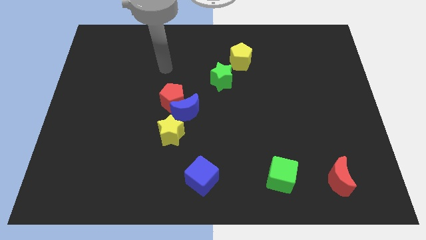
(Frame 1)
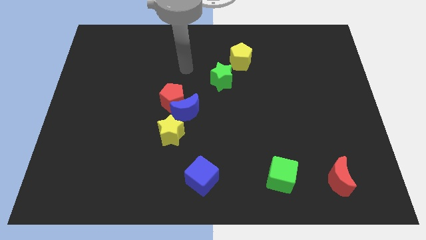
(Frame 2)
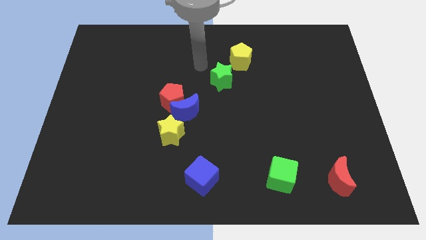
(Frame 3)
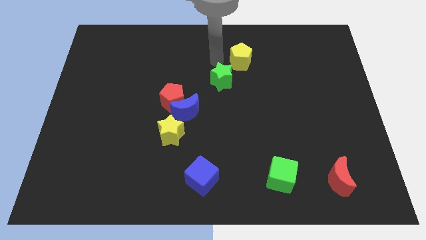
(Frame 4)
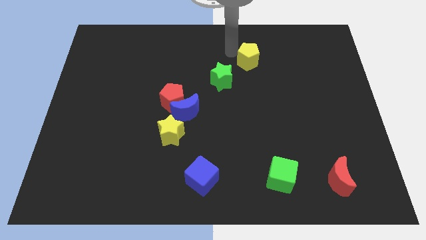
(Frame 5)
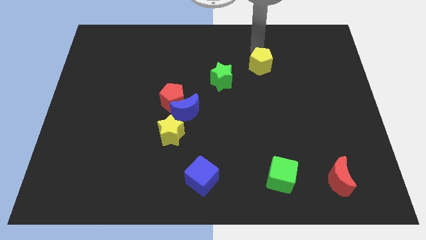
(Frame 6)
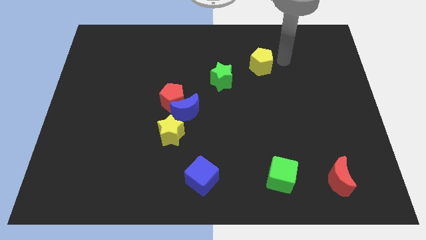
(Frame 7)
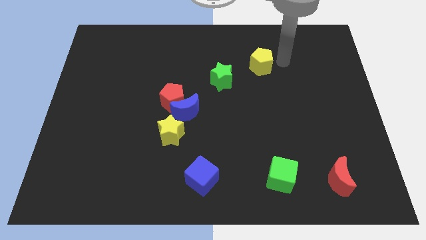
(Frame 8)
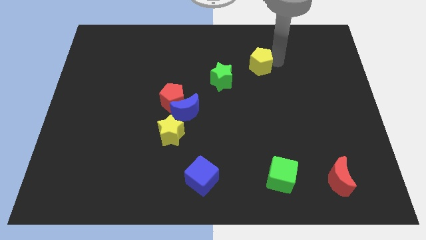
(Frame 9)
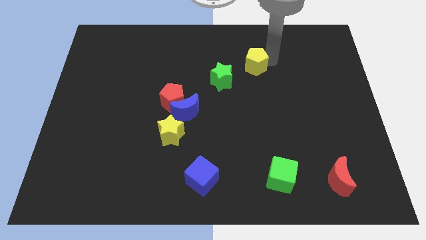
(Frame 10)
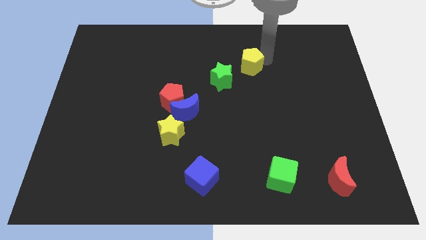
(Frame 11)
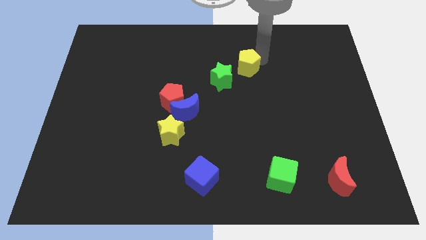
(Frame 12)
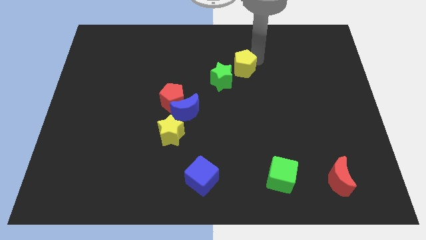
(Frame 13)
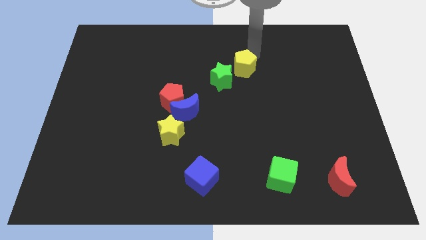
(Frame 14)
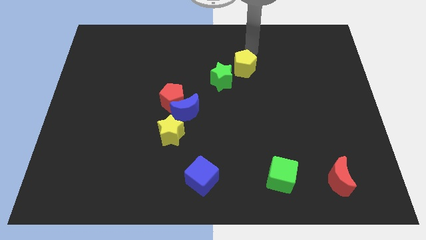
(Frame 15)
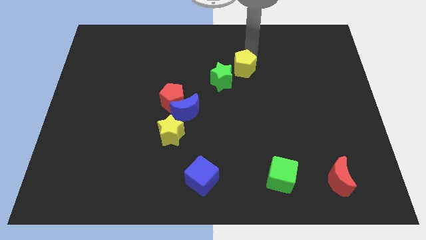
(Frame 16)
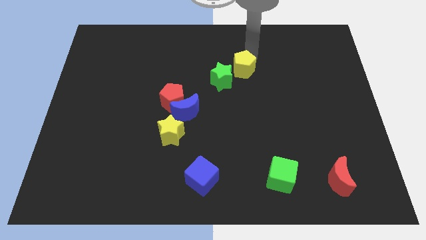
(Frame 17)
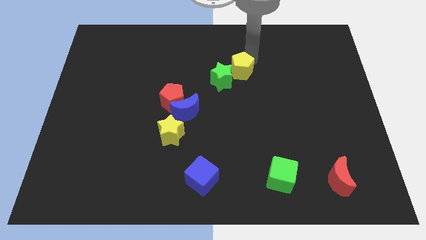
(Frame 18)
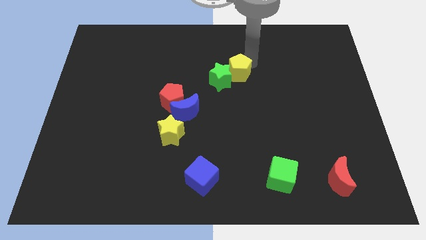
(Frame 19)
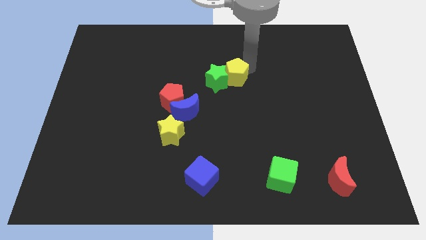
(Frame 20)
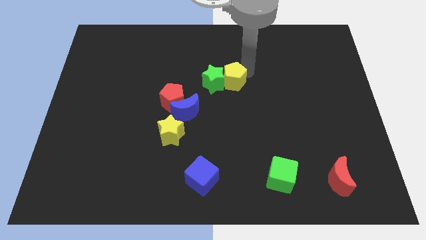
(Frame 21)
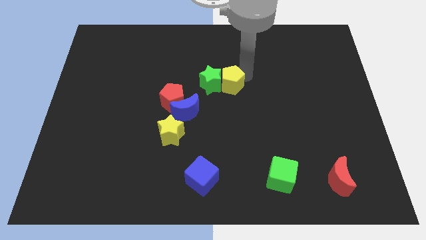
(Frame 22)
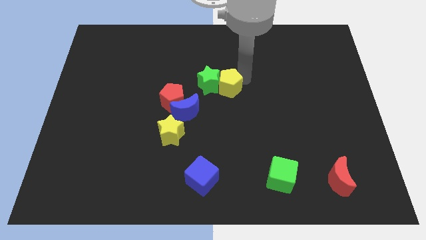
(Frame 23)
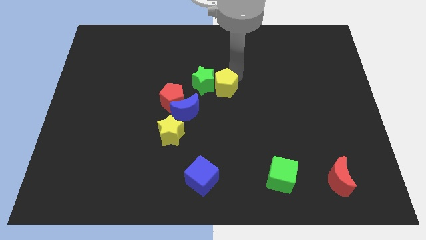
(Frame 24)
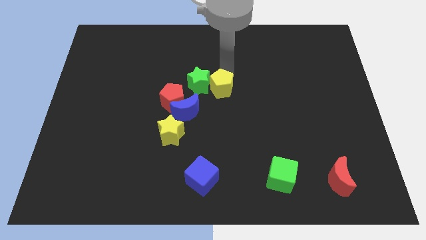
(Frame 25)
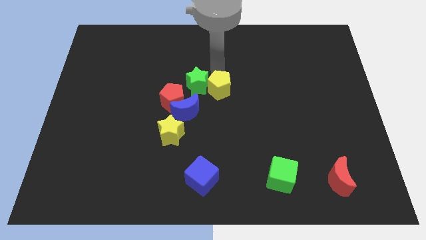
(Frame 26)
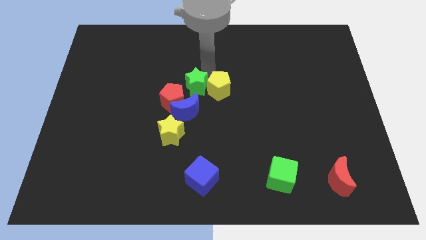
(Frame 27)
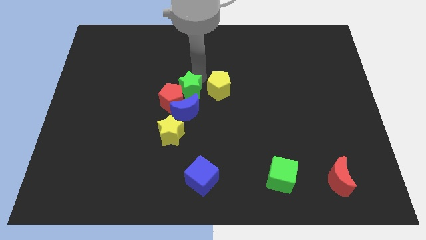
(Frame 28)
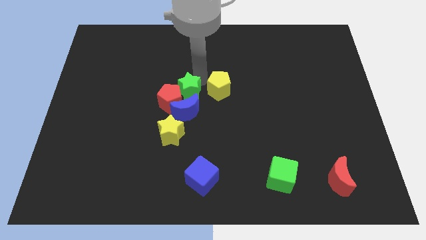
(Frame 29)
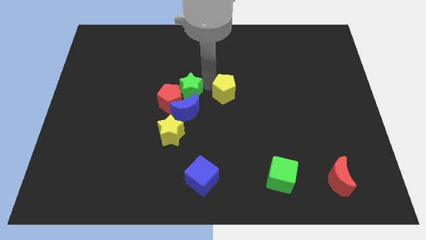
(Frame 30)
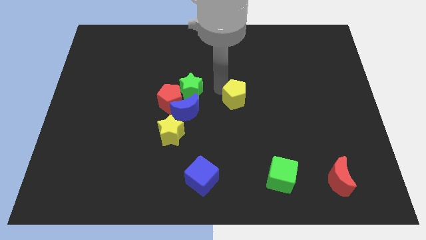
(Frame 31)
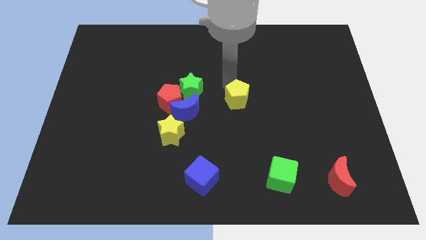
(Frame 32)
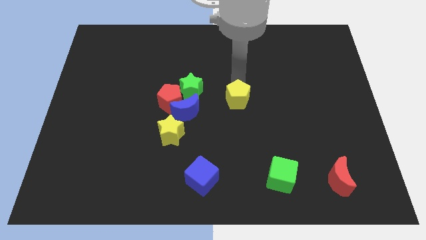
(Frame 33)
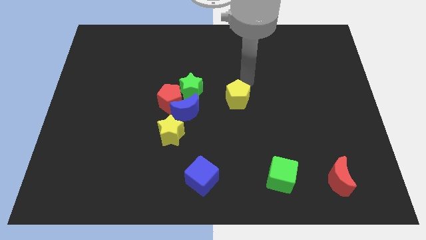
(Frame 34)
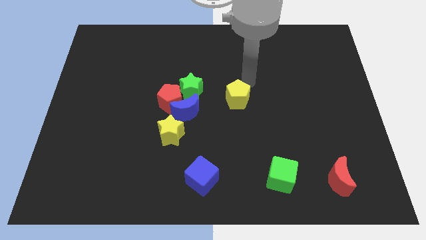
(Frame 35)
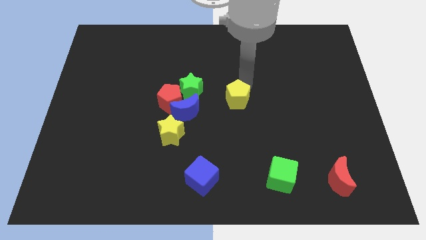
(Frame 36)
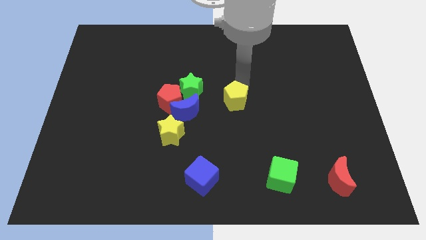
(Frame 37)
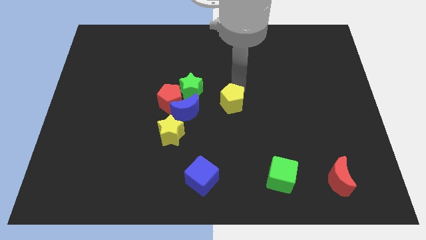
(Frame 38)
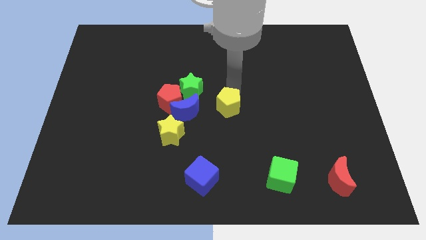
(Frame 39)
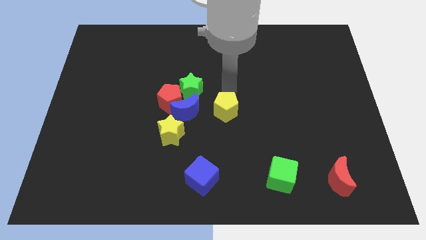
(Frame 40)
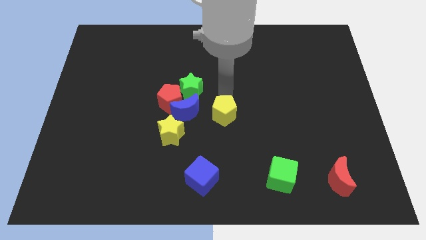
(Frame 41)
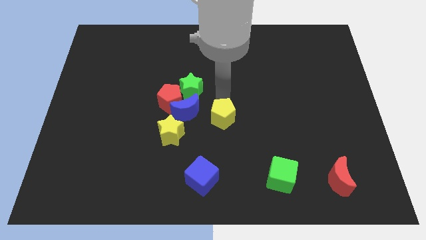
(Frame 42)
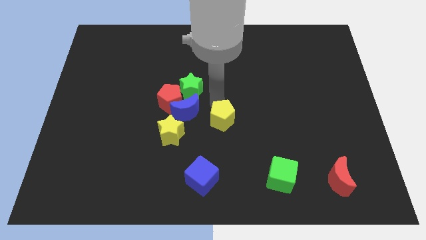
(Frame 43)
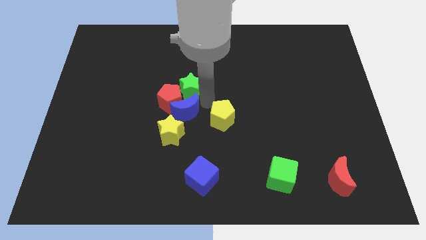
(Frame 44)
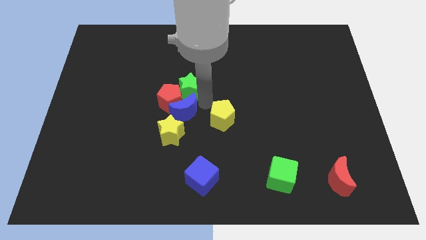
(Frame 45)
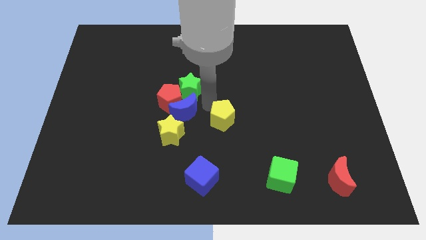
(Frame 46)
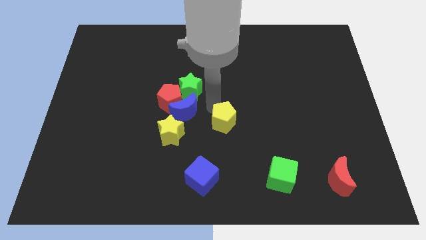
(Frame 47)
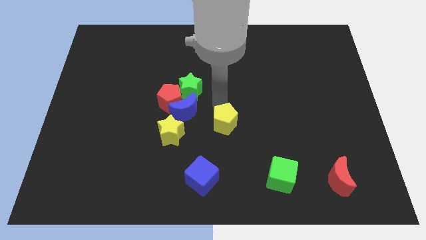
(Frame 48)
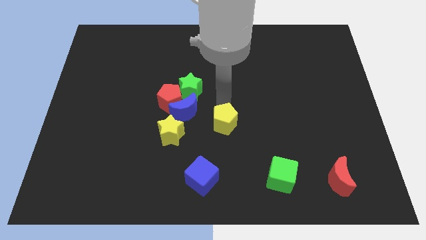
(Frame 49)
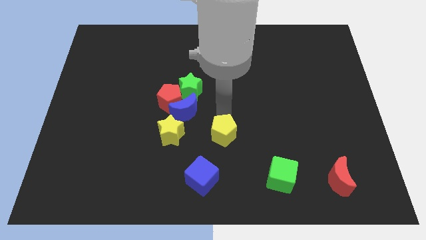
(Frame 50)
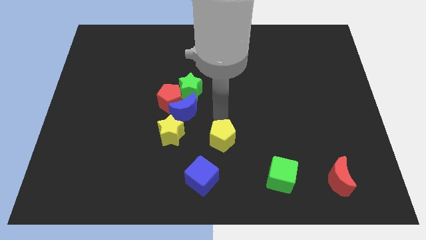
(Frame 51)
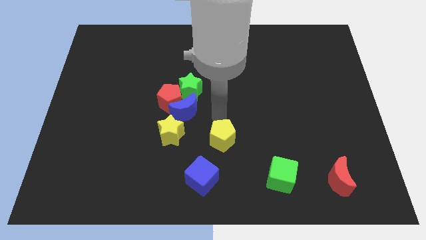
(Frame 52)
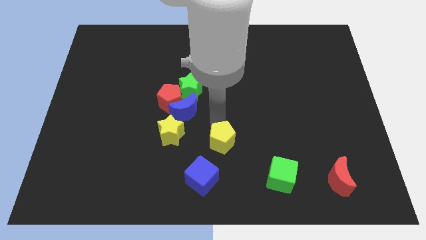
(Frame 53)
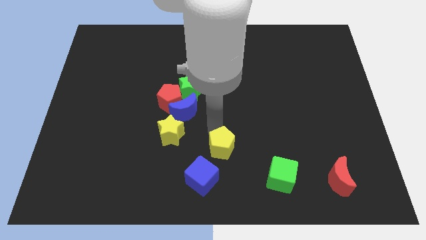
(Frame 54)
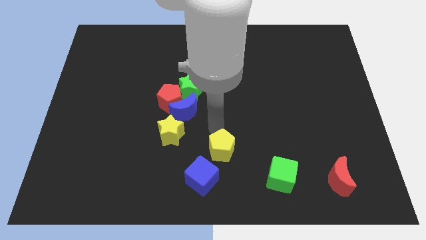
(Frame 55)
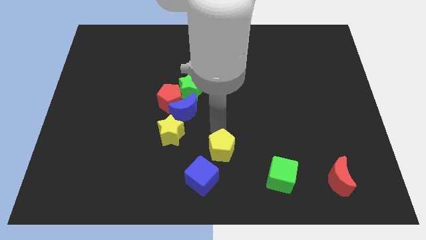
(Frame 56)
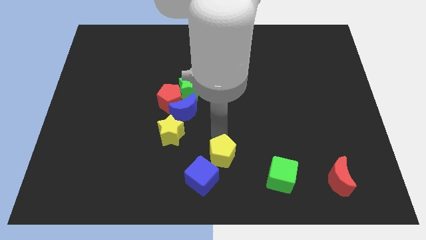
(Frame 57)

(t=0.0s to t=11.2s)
put the yellow pentagon to the bottom

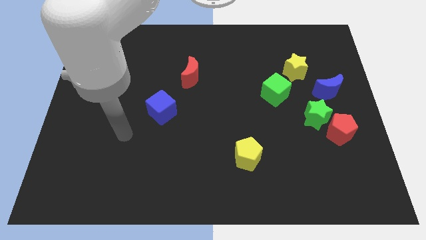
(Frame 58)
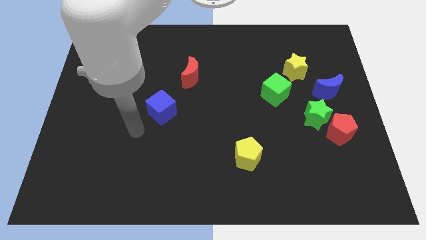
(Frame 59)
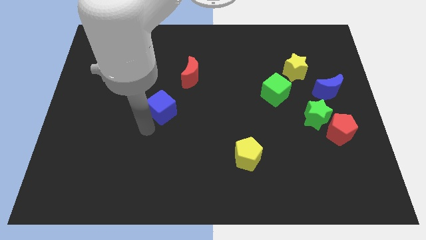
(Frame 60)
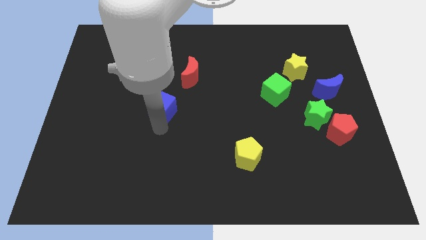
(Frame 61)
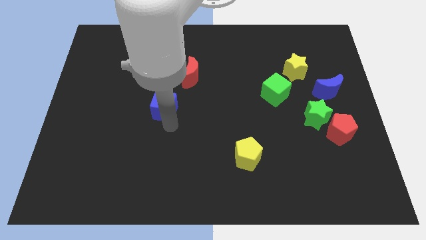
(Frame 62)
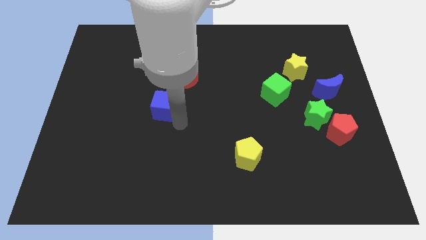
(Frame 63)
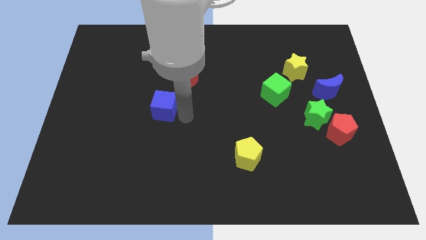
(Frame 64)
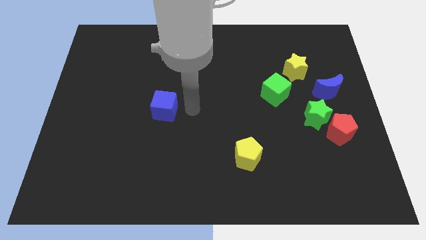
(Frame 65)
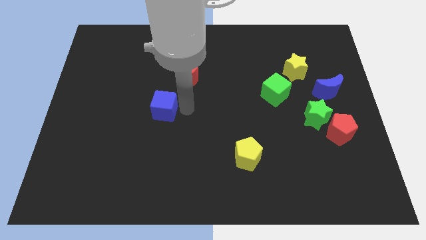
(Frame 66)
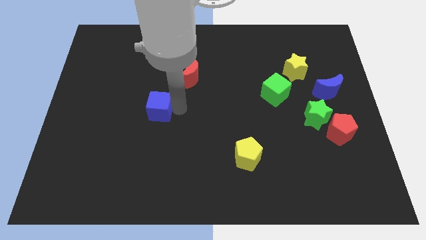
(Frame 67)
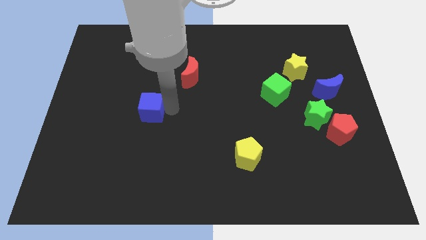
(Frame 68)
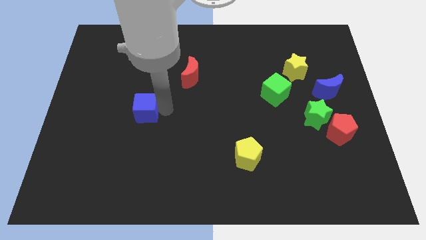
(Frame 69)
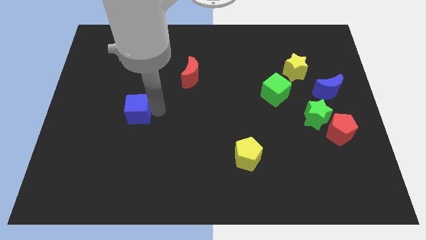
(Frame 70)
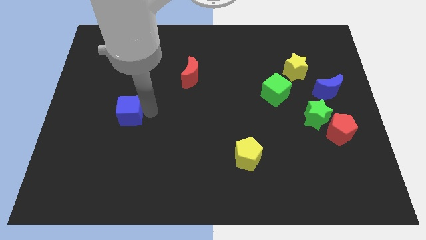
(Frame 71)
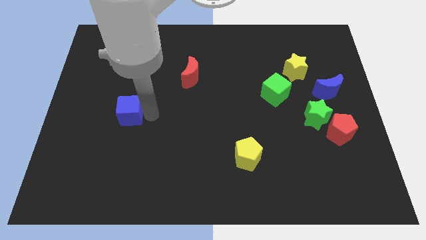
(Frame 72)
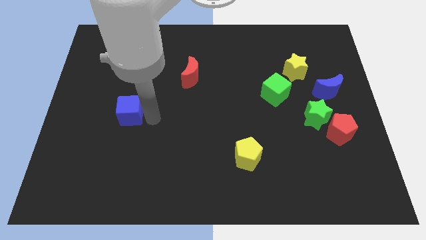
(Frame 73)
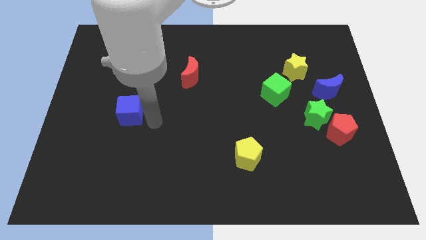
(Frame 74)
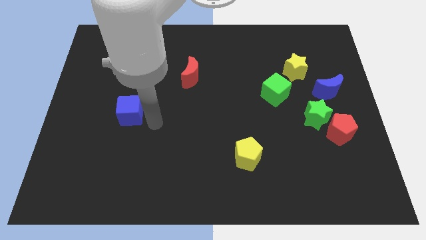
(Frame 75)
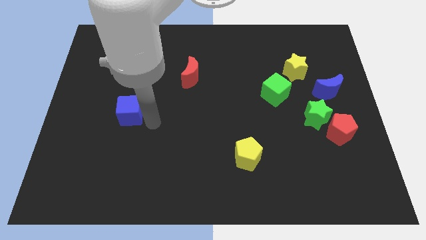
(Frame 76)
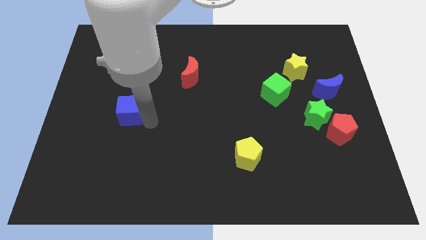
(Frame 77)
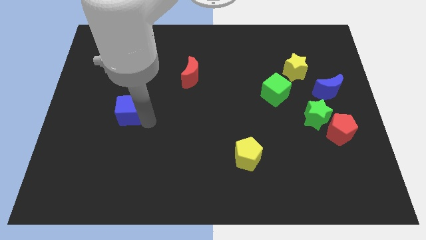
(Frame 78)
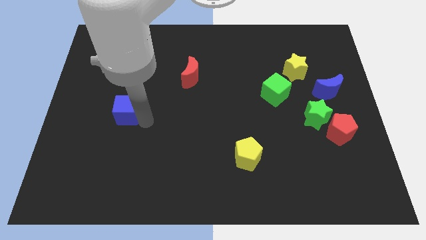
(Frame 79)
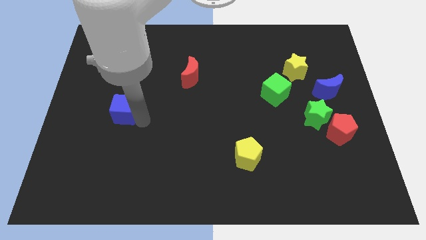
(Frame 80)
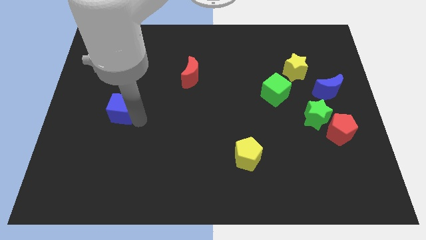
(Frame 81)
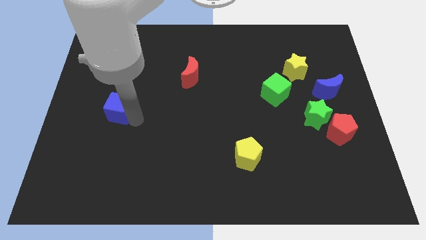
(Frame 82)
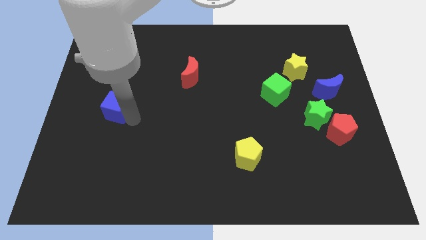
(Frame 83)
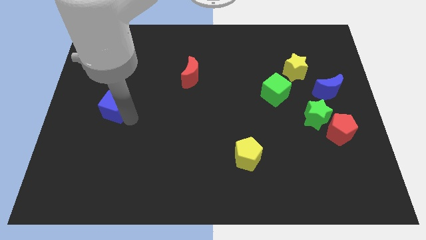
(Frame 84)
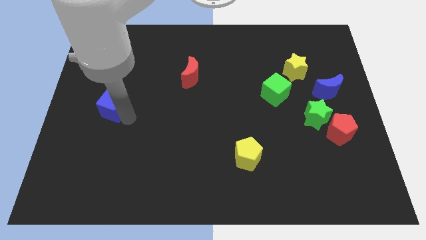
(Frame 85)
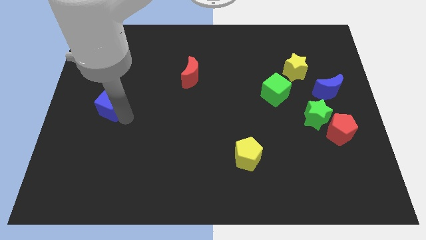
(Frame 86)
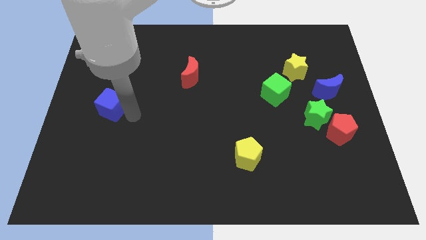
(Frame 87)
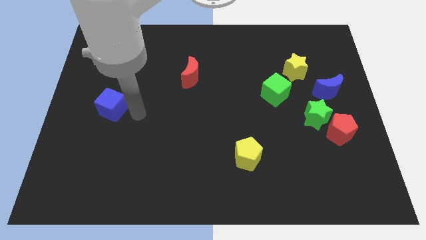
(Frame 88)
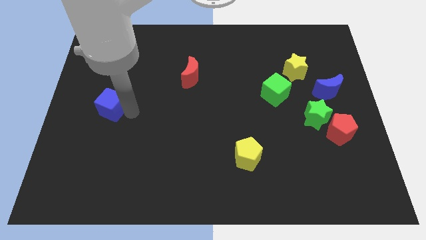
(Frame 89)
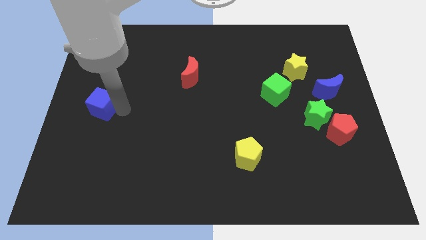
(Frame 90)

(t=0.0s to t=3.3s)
put the blue cube to the left side
